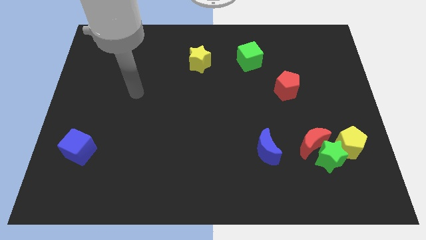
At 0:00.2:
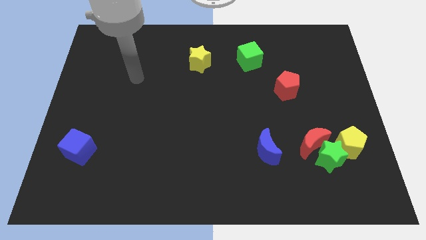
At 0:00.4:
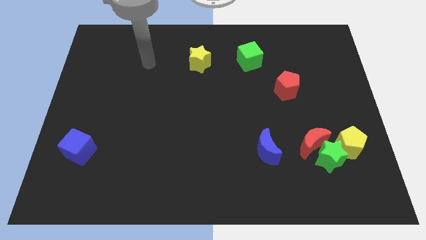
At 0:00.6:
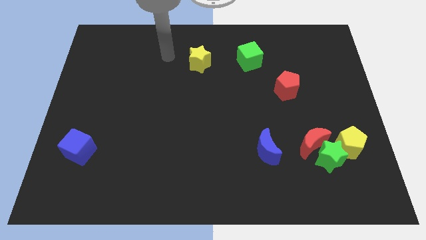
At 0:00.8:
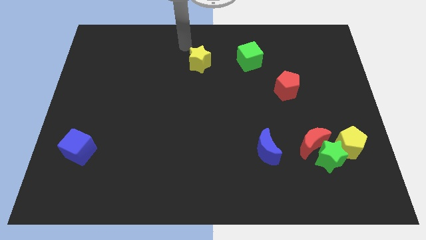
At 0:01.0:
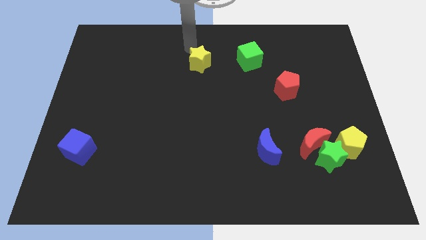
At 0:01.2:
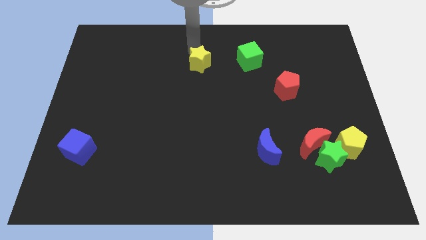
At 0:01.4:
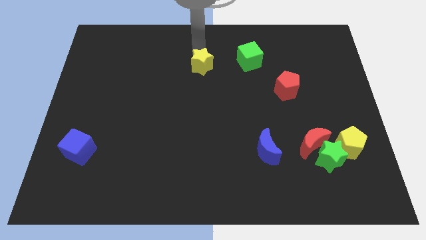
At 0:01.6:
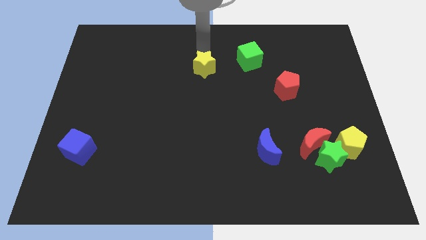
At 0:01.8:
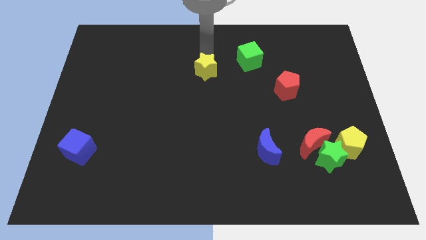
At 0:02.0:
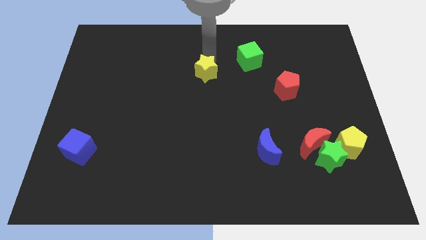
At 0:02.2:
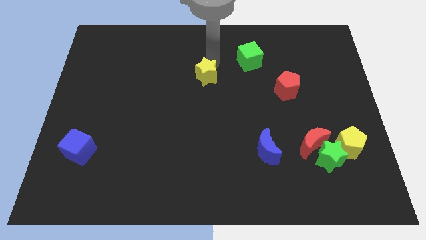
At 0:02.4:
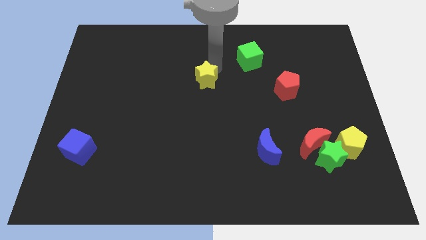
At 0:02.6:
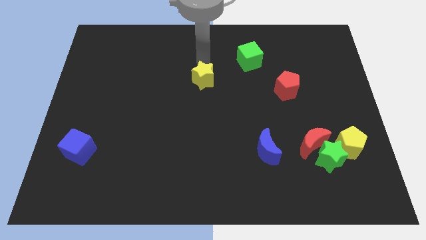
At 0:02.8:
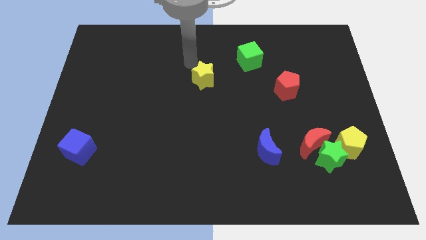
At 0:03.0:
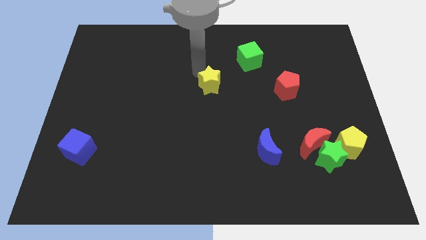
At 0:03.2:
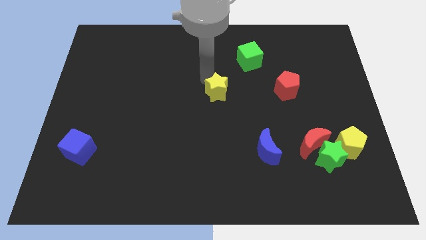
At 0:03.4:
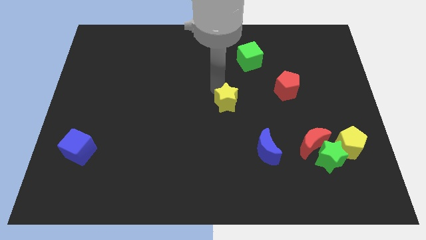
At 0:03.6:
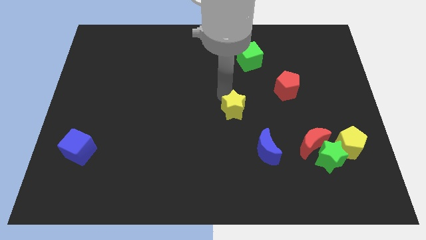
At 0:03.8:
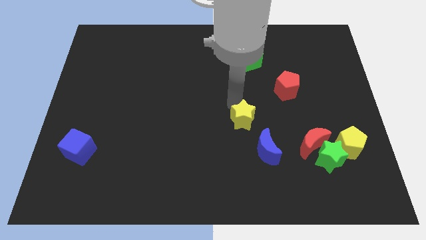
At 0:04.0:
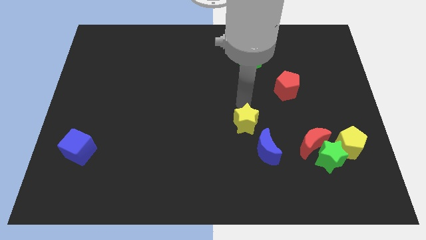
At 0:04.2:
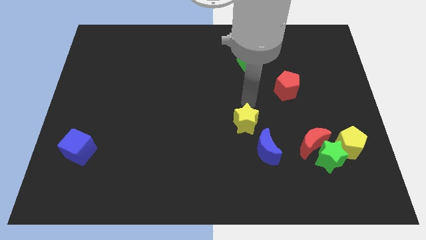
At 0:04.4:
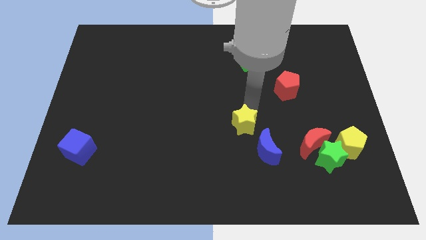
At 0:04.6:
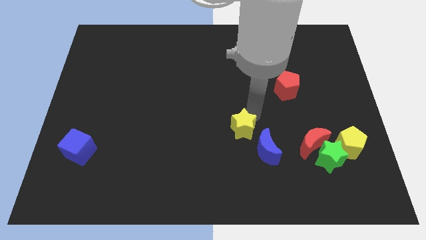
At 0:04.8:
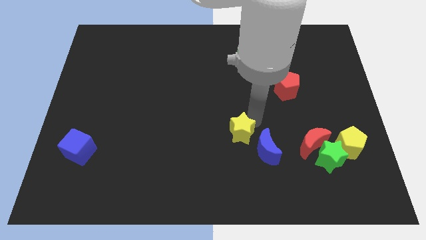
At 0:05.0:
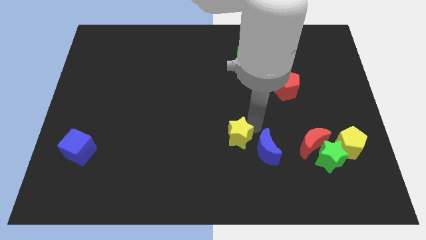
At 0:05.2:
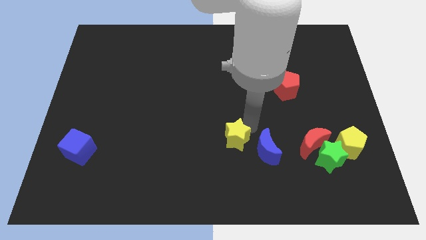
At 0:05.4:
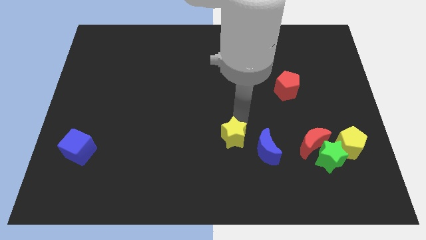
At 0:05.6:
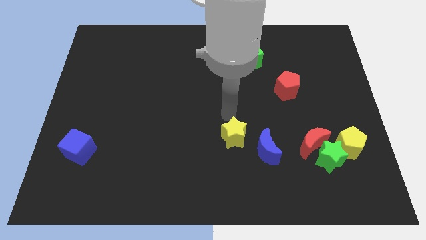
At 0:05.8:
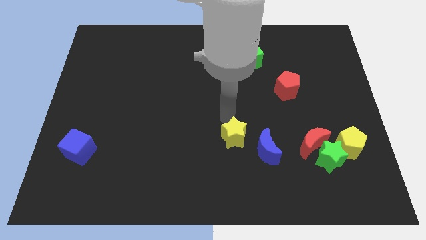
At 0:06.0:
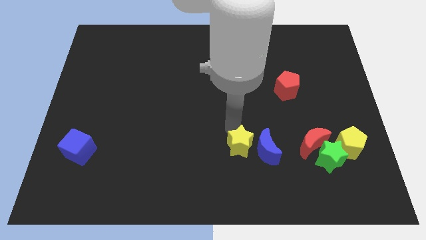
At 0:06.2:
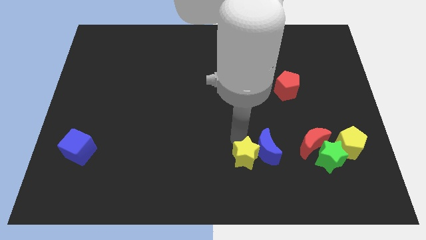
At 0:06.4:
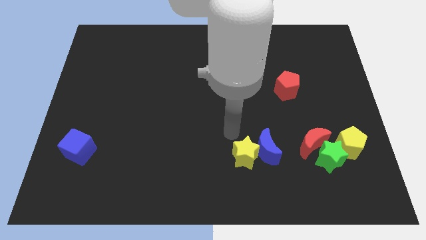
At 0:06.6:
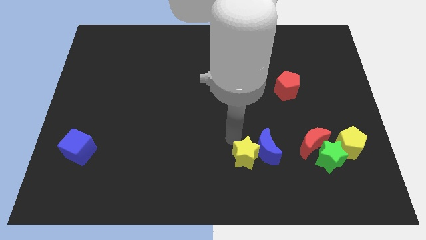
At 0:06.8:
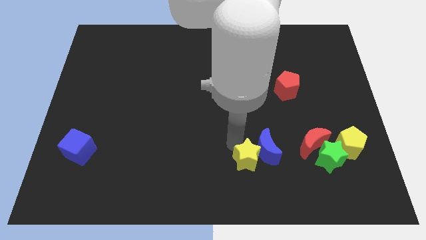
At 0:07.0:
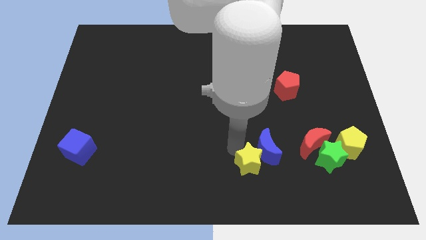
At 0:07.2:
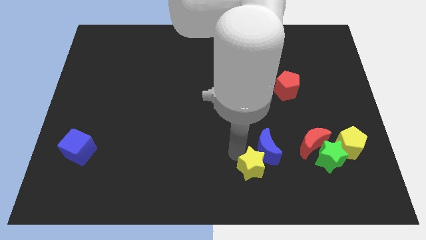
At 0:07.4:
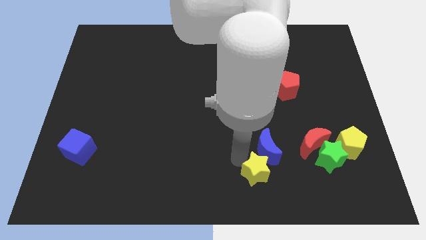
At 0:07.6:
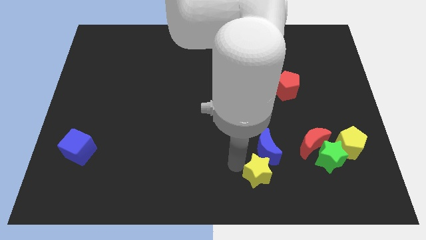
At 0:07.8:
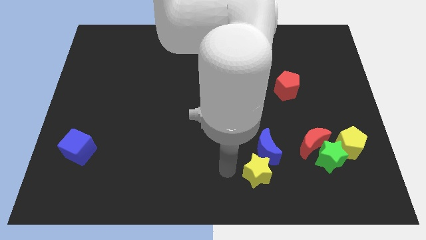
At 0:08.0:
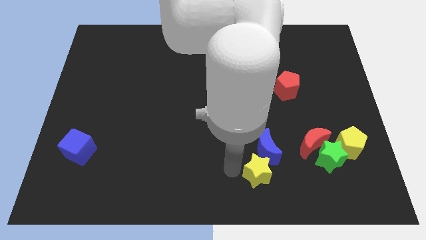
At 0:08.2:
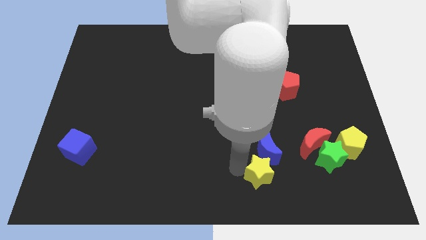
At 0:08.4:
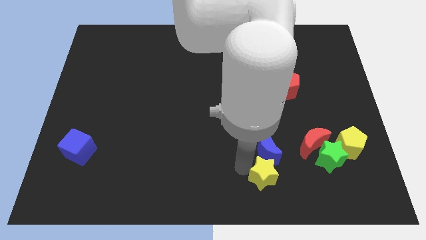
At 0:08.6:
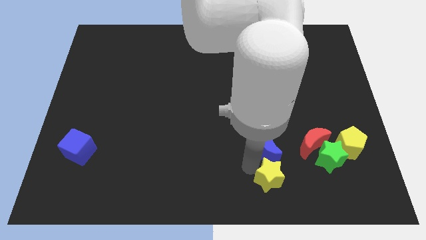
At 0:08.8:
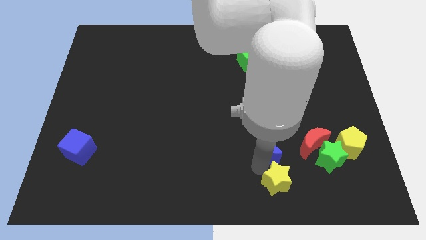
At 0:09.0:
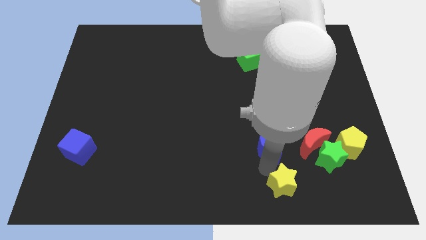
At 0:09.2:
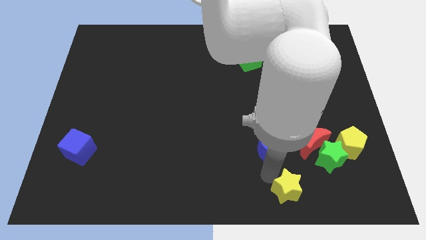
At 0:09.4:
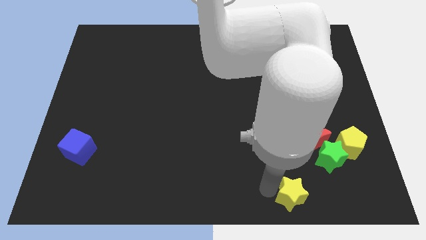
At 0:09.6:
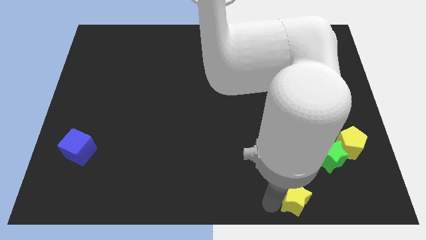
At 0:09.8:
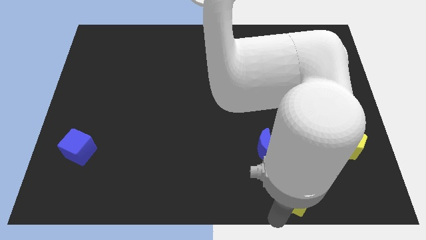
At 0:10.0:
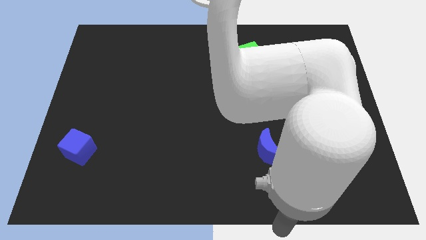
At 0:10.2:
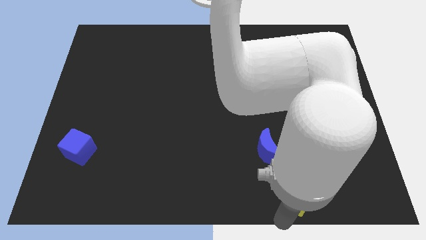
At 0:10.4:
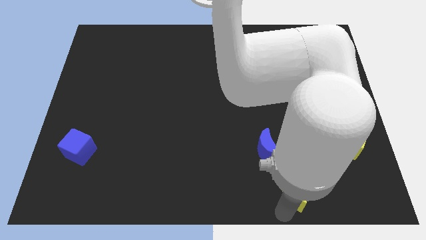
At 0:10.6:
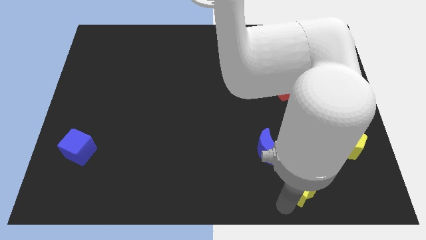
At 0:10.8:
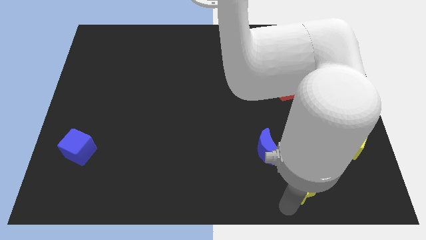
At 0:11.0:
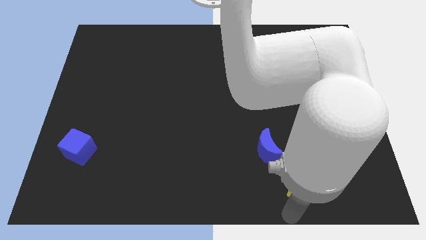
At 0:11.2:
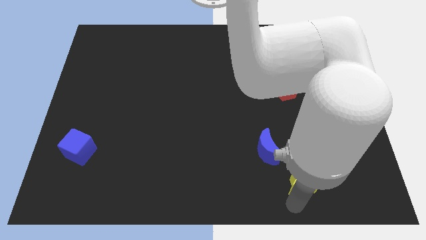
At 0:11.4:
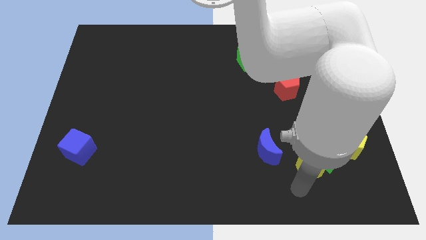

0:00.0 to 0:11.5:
push the yellow star to the green star

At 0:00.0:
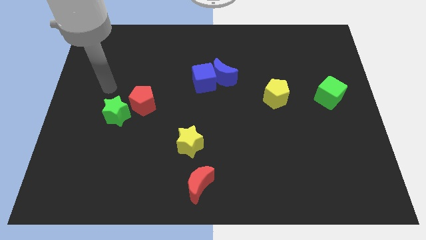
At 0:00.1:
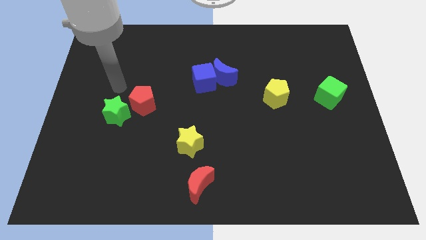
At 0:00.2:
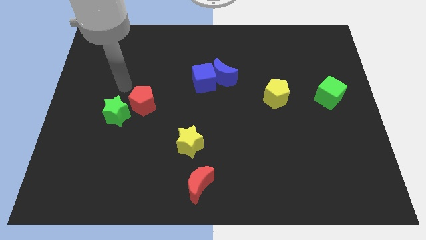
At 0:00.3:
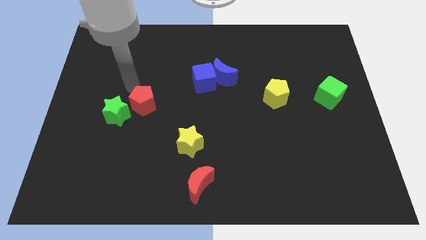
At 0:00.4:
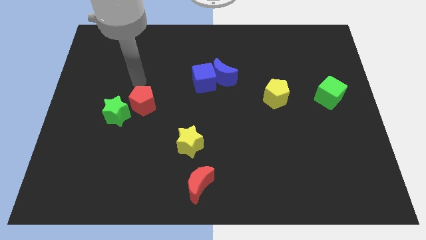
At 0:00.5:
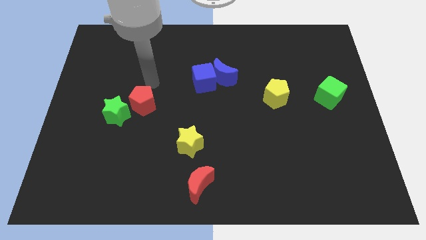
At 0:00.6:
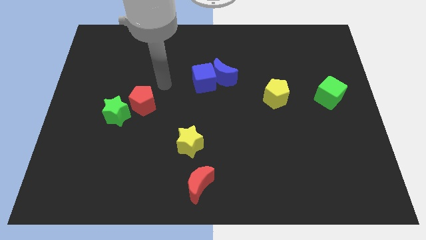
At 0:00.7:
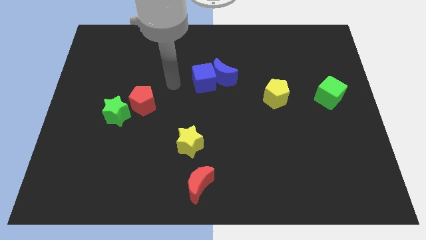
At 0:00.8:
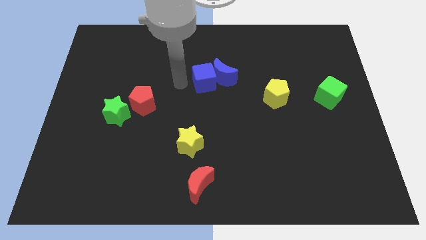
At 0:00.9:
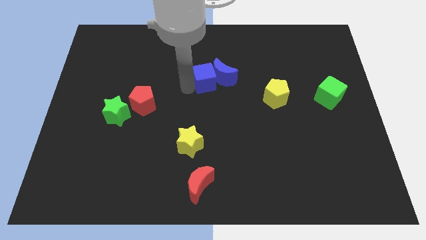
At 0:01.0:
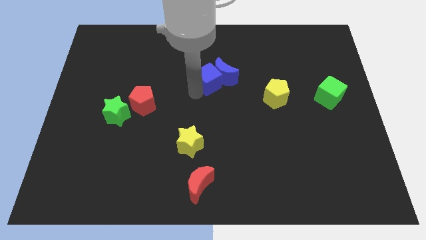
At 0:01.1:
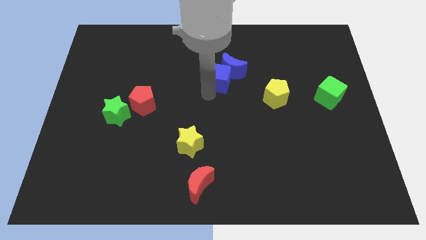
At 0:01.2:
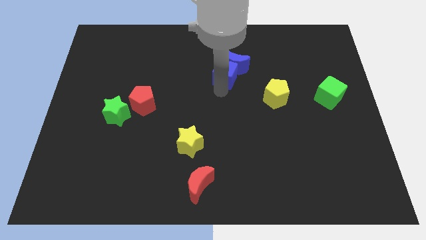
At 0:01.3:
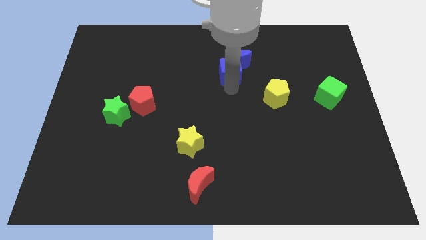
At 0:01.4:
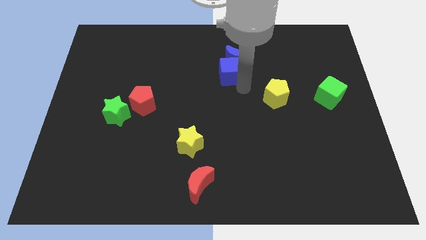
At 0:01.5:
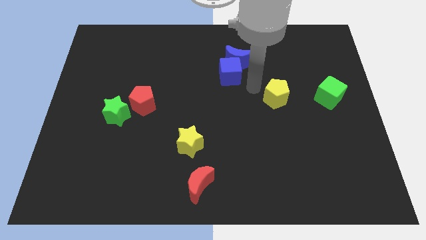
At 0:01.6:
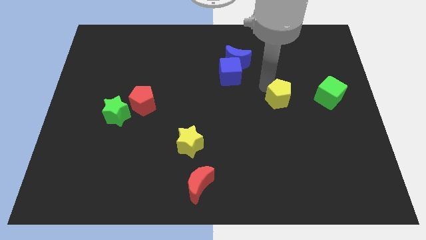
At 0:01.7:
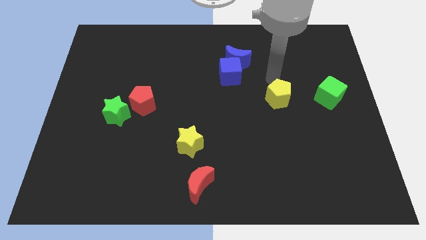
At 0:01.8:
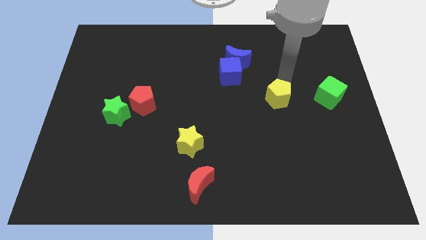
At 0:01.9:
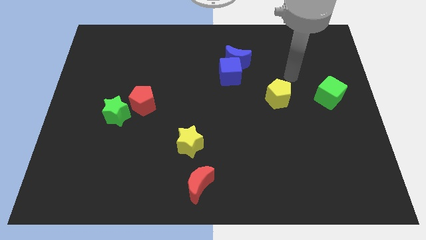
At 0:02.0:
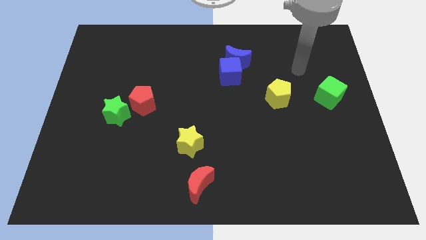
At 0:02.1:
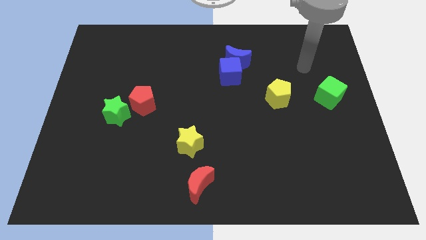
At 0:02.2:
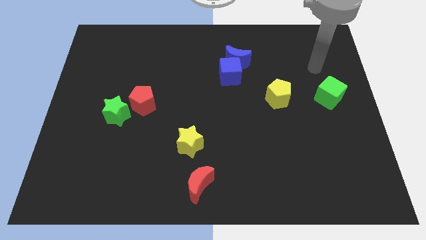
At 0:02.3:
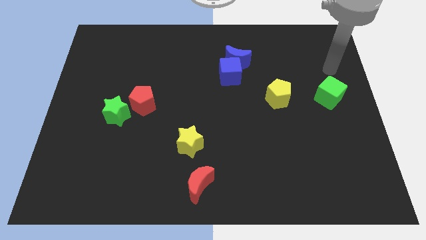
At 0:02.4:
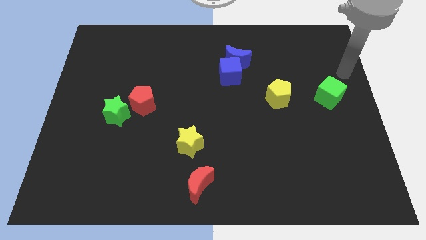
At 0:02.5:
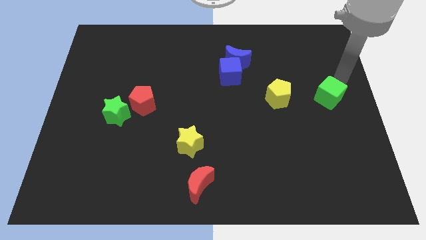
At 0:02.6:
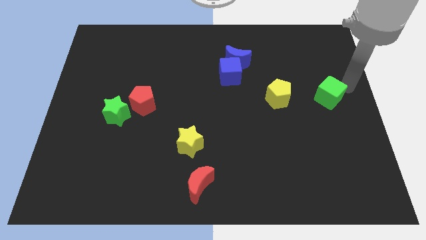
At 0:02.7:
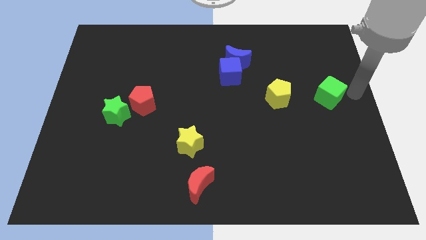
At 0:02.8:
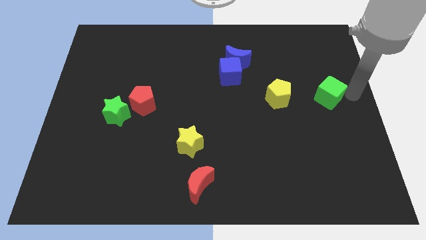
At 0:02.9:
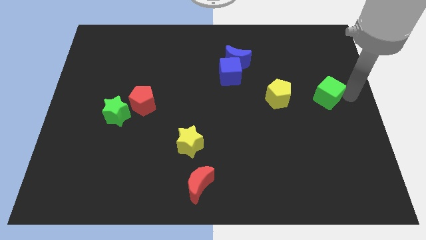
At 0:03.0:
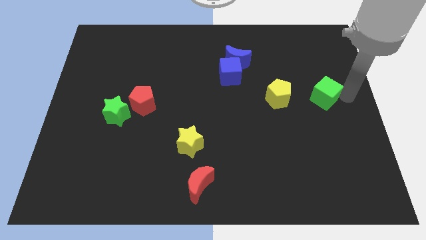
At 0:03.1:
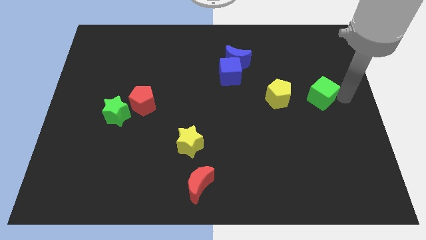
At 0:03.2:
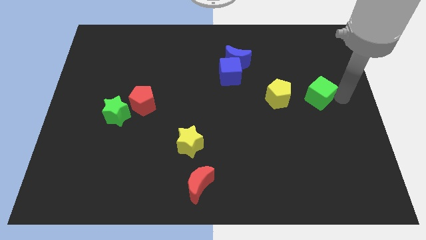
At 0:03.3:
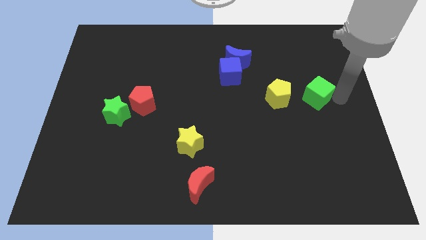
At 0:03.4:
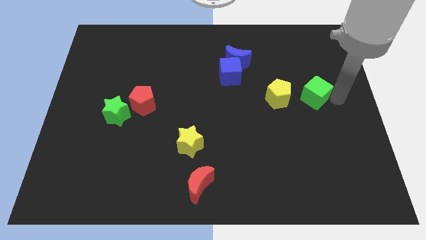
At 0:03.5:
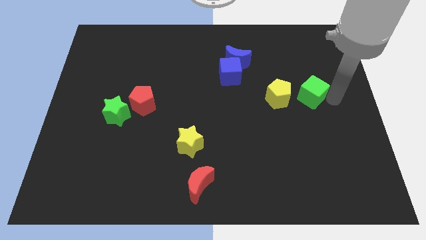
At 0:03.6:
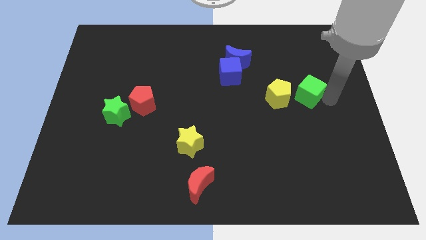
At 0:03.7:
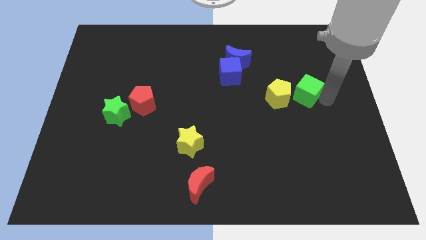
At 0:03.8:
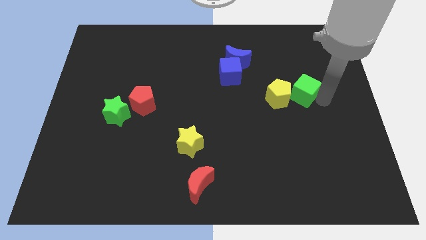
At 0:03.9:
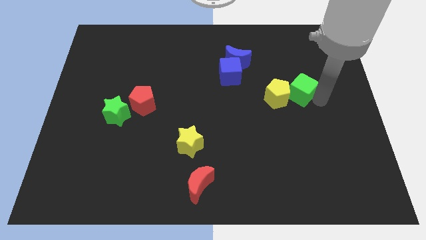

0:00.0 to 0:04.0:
put the green cube next to the yellow pentagon
